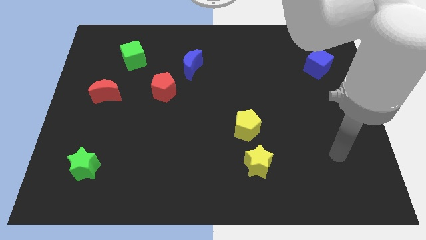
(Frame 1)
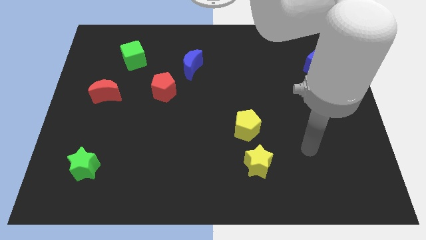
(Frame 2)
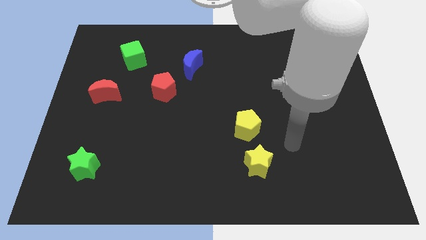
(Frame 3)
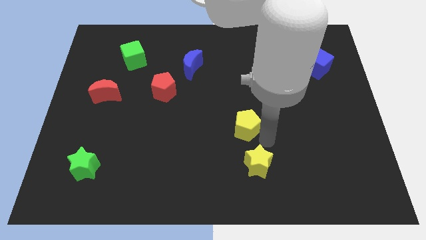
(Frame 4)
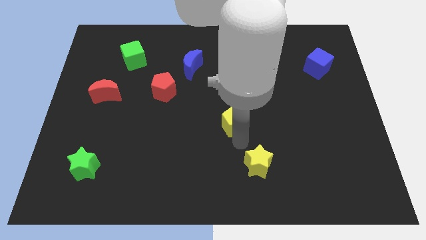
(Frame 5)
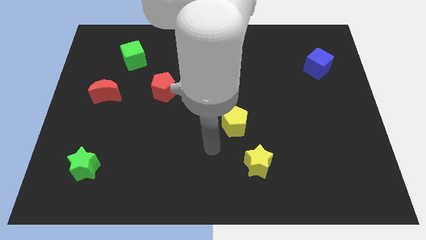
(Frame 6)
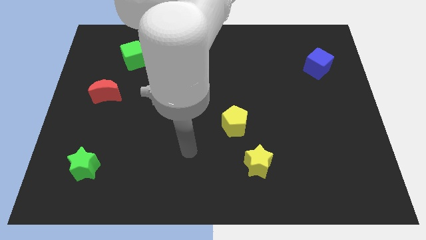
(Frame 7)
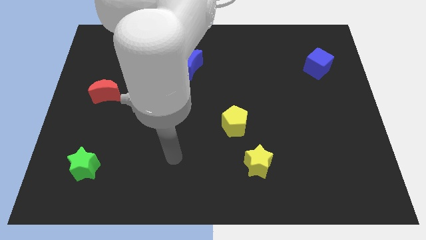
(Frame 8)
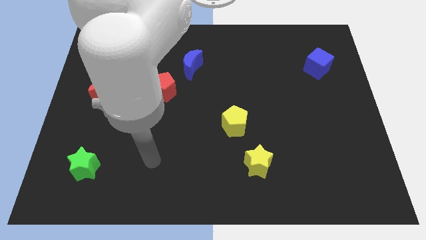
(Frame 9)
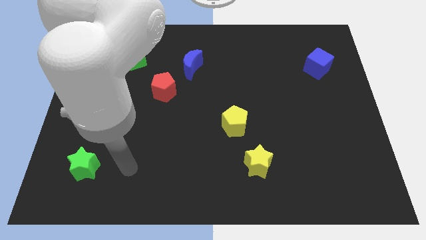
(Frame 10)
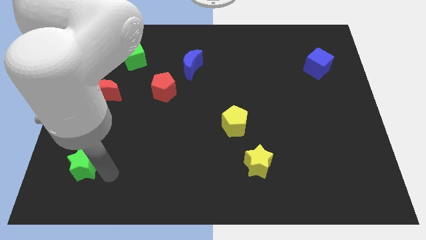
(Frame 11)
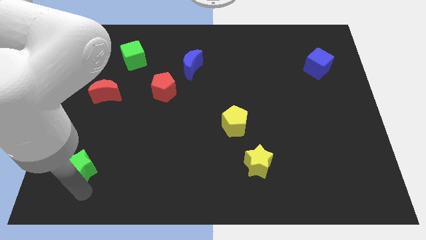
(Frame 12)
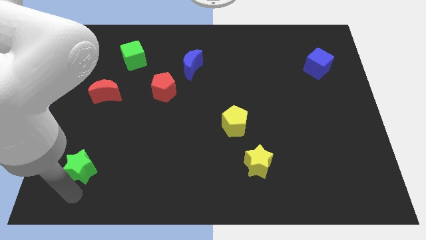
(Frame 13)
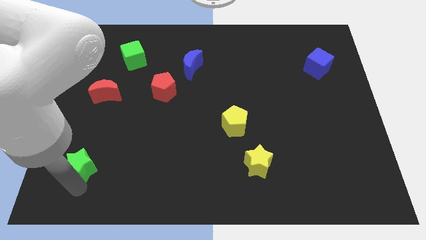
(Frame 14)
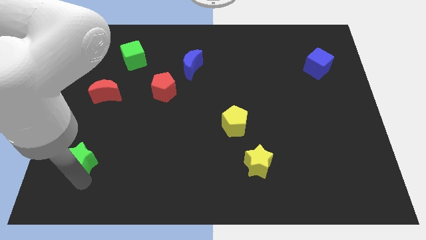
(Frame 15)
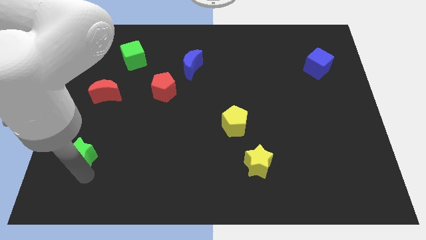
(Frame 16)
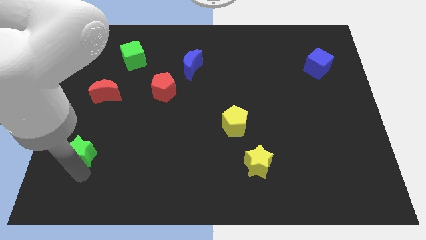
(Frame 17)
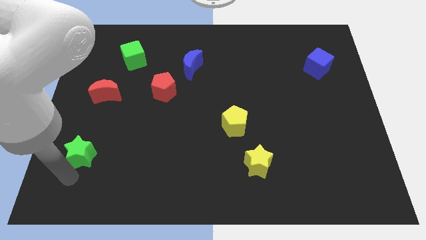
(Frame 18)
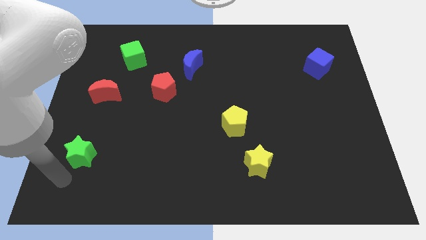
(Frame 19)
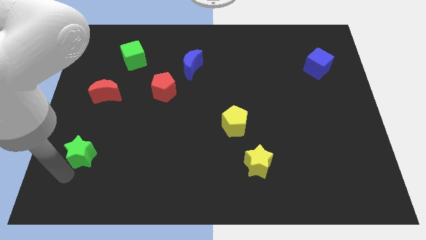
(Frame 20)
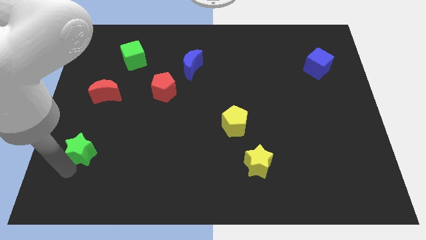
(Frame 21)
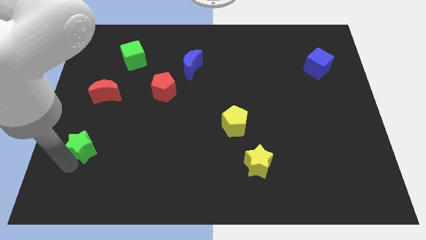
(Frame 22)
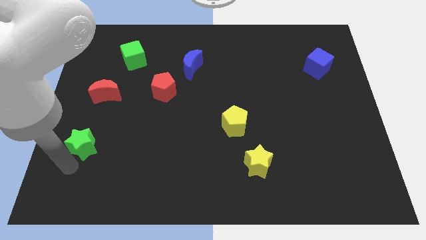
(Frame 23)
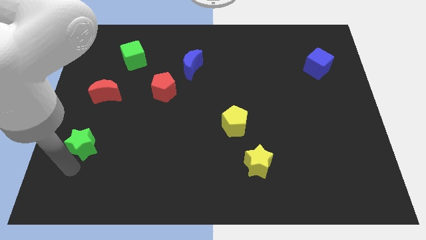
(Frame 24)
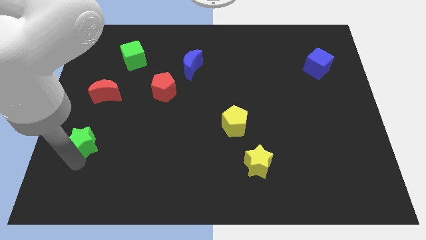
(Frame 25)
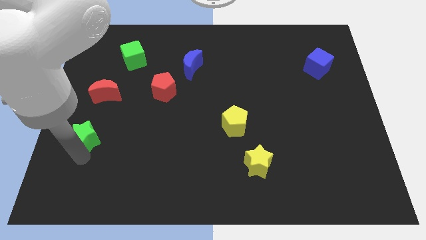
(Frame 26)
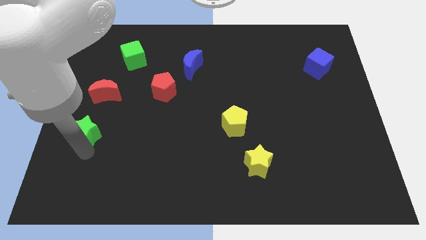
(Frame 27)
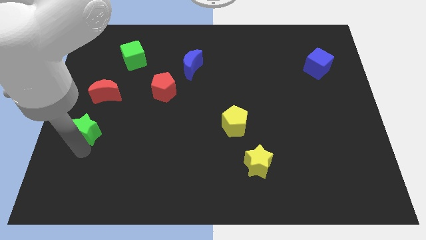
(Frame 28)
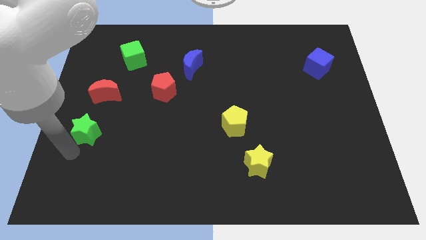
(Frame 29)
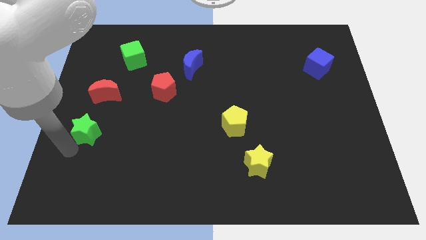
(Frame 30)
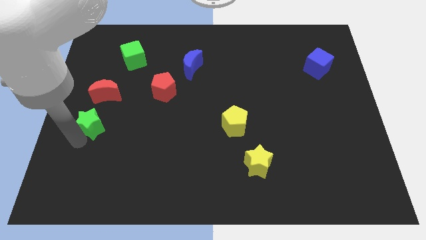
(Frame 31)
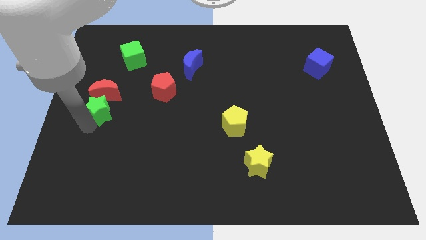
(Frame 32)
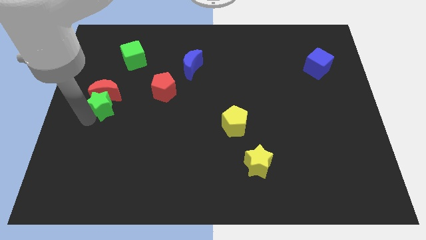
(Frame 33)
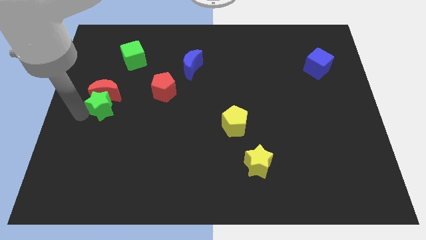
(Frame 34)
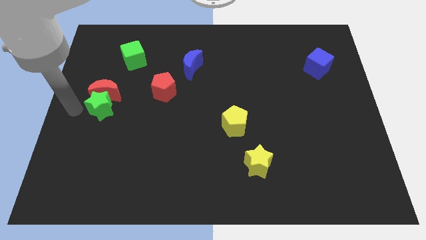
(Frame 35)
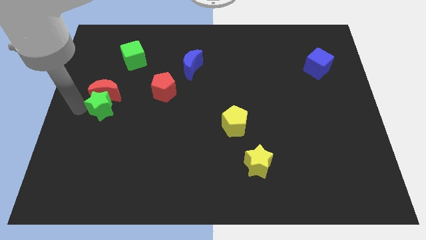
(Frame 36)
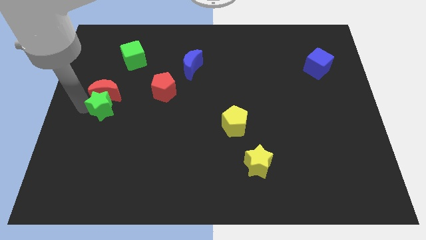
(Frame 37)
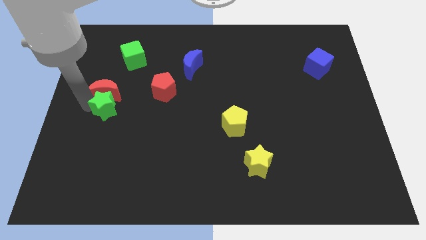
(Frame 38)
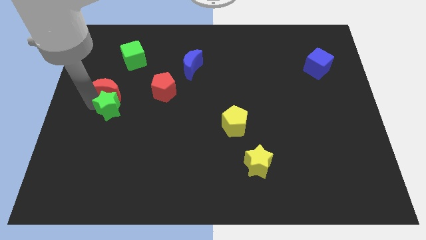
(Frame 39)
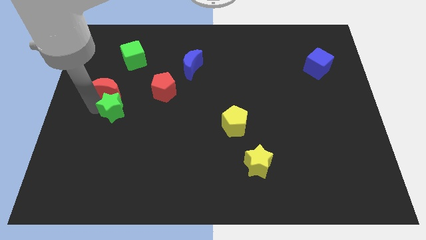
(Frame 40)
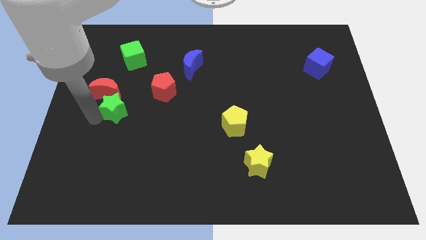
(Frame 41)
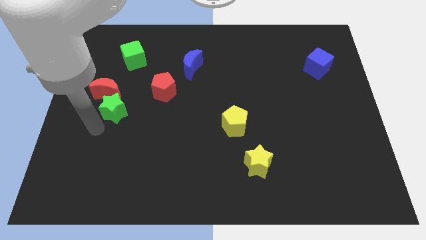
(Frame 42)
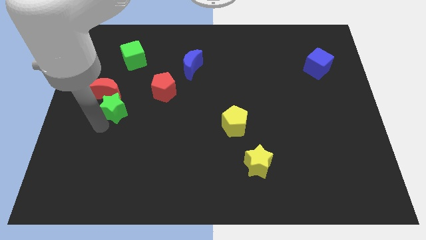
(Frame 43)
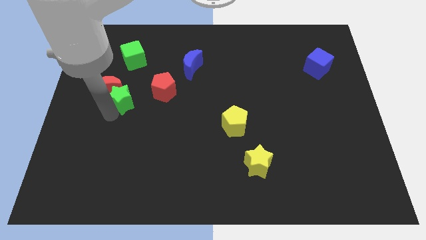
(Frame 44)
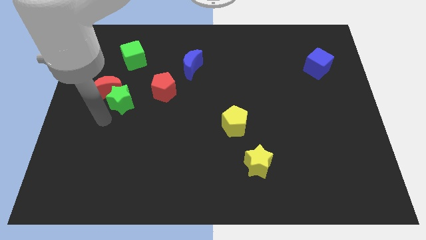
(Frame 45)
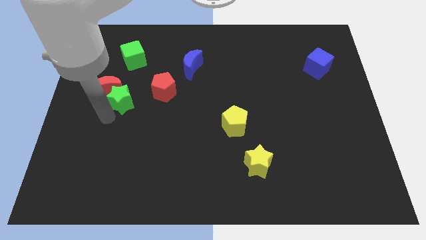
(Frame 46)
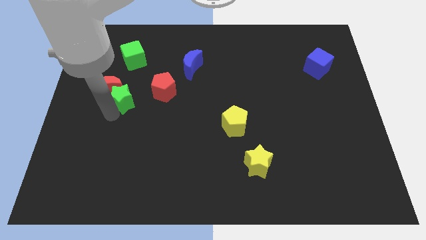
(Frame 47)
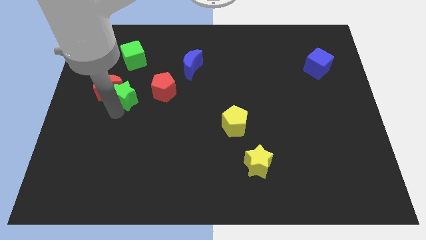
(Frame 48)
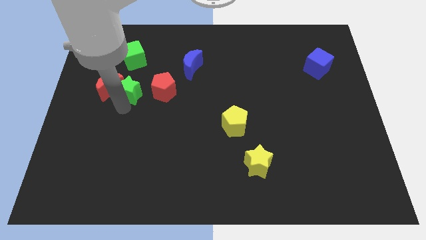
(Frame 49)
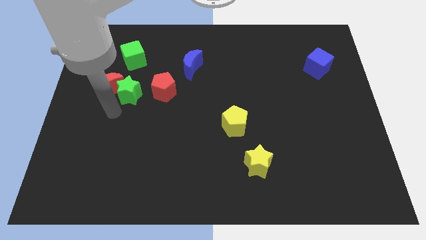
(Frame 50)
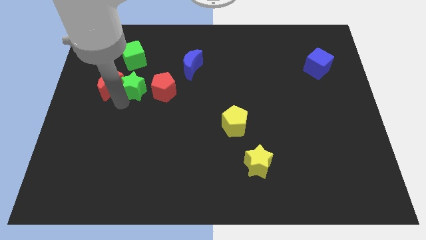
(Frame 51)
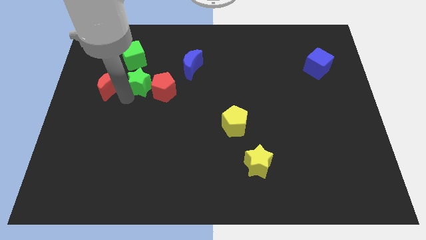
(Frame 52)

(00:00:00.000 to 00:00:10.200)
put the green star diagonally up and to the left of the red pentagon

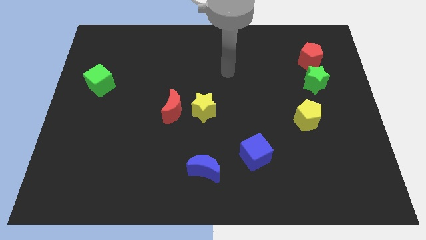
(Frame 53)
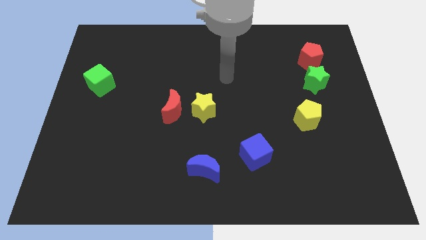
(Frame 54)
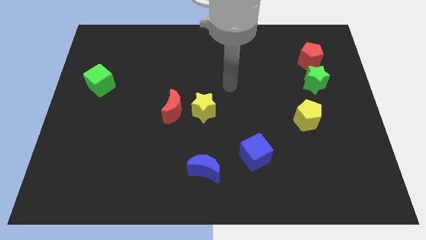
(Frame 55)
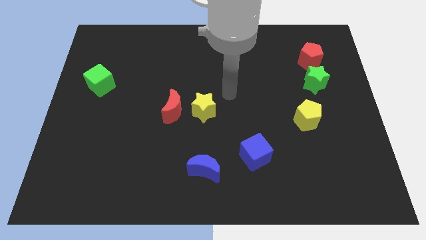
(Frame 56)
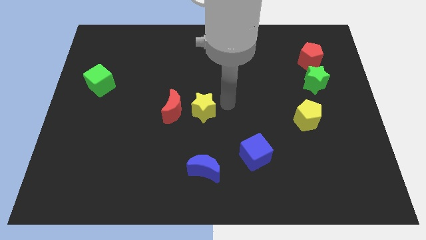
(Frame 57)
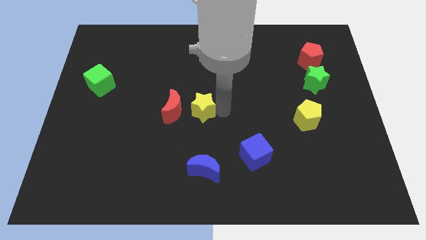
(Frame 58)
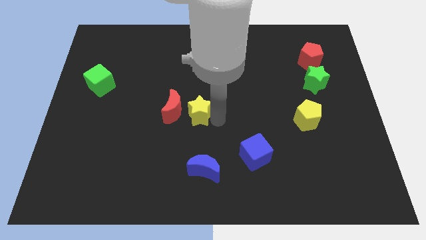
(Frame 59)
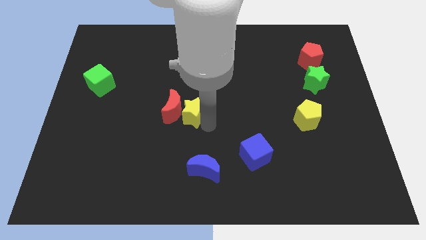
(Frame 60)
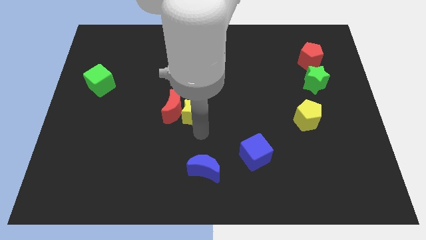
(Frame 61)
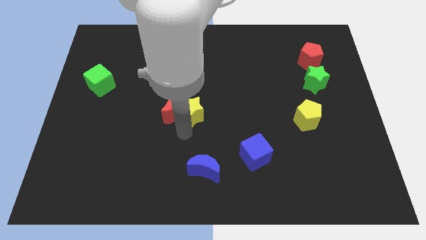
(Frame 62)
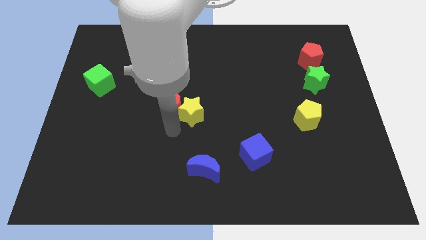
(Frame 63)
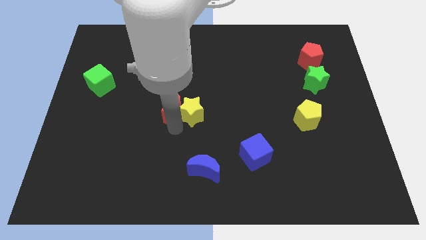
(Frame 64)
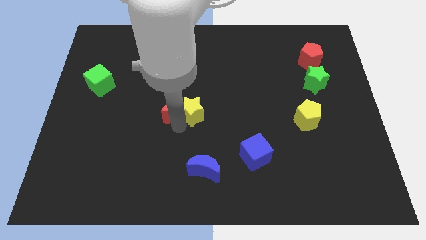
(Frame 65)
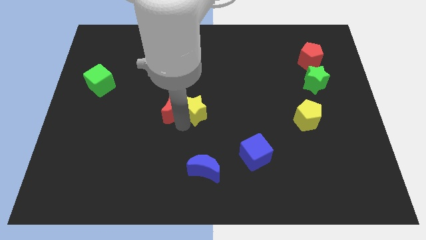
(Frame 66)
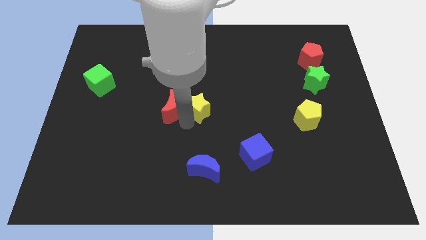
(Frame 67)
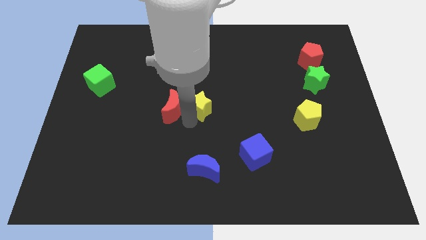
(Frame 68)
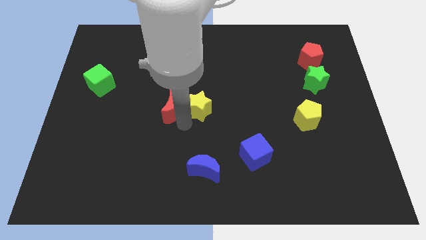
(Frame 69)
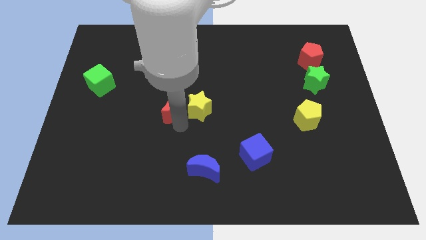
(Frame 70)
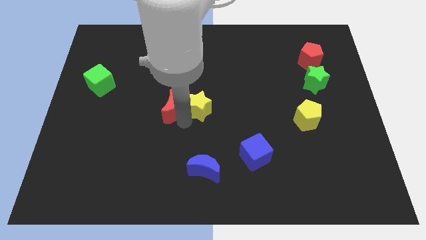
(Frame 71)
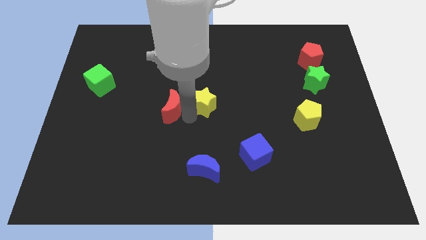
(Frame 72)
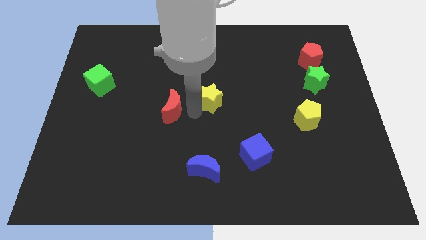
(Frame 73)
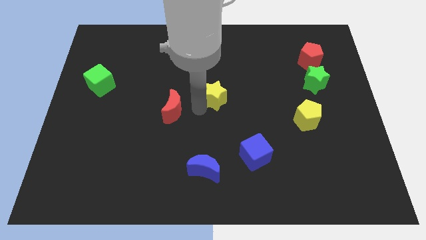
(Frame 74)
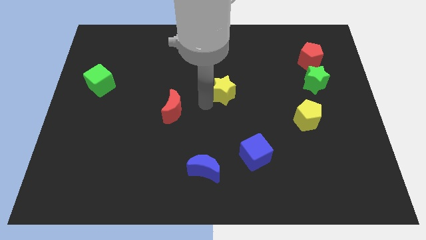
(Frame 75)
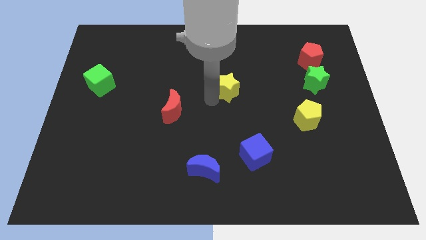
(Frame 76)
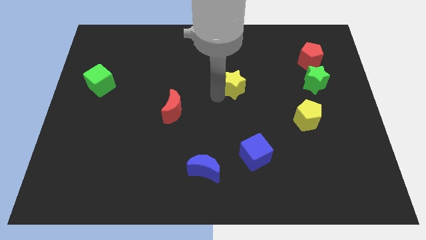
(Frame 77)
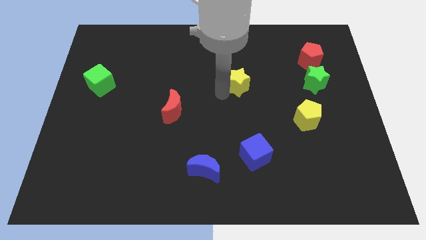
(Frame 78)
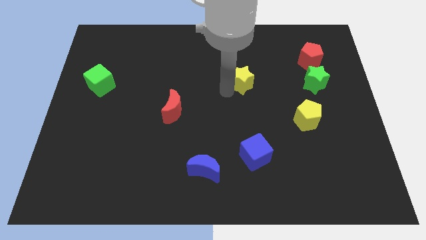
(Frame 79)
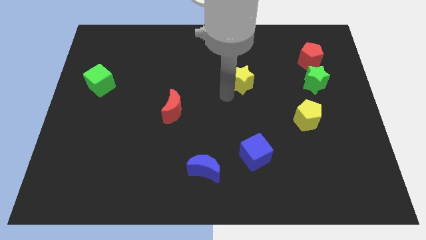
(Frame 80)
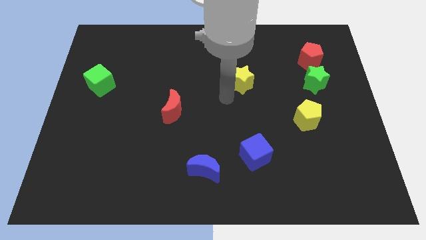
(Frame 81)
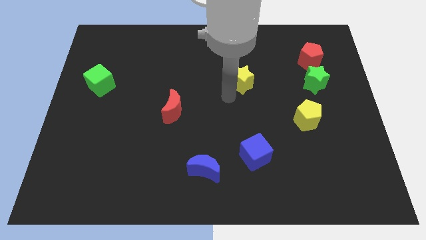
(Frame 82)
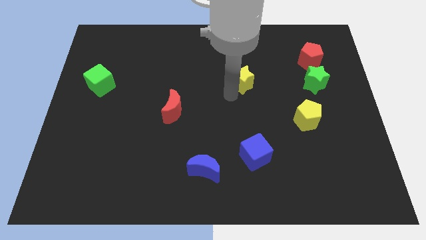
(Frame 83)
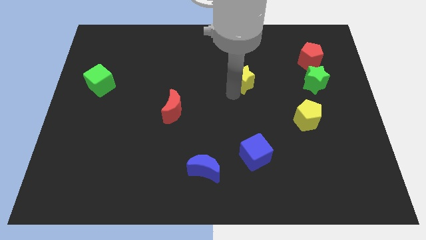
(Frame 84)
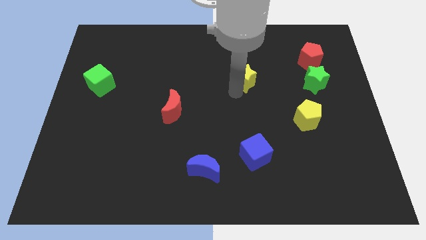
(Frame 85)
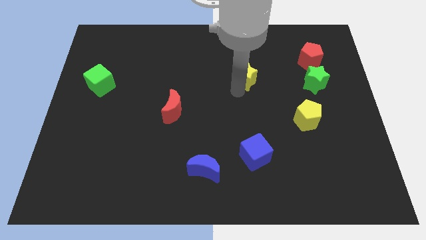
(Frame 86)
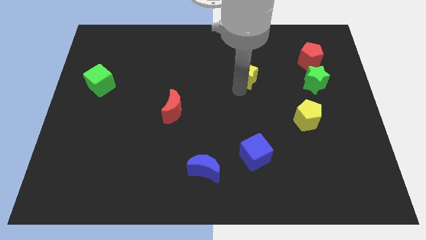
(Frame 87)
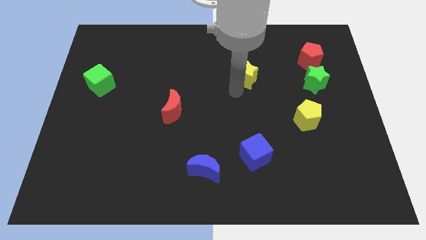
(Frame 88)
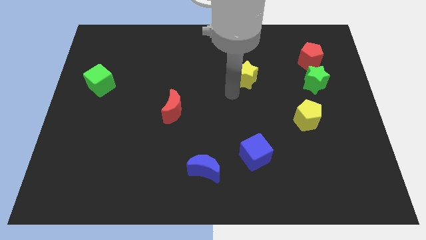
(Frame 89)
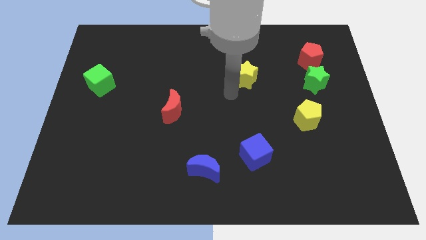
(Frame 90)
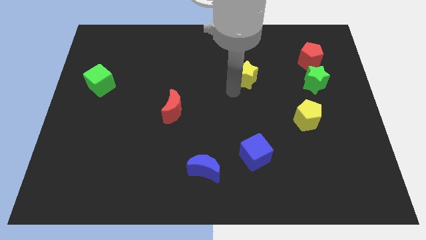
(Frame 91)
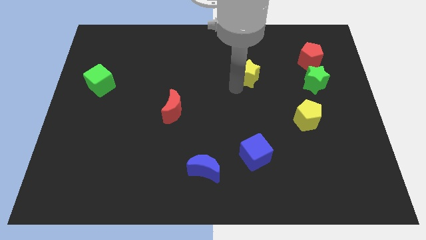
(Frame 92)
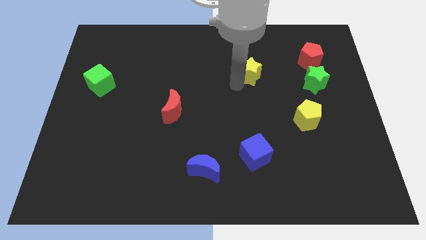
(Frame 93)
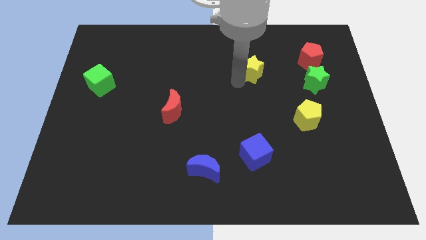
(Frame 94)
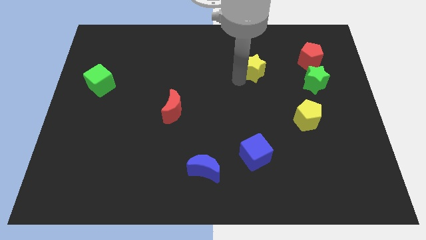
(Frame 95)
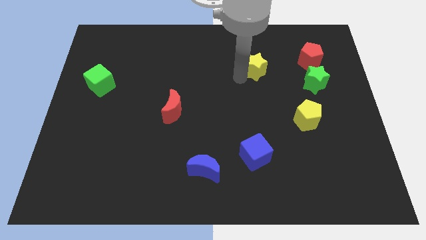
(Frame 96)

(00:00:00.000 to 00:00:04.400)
slide the yellow star to the left of the red pentagon
